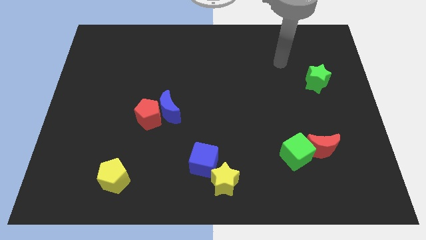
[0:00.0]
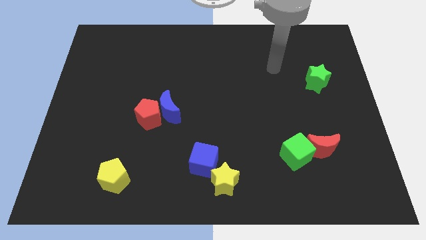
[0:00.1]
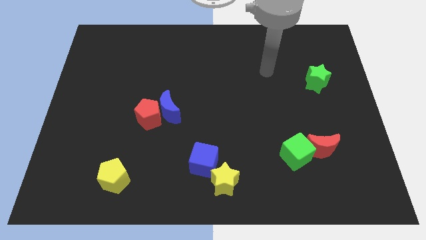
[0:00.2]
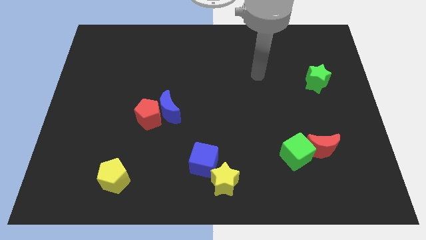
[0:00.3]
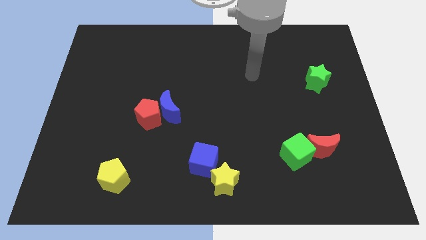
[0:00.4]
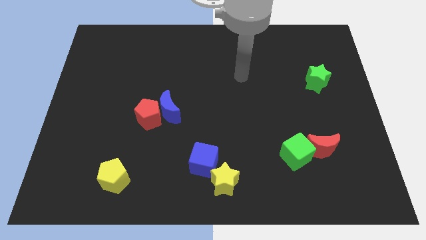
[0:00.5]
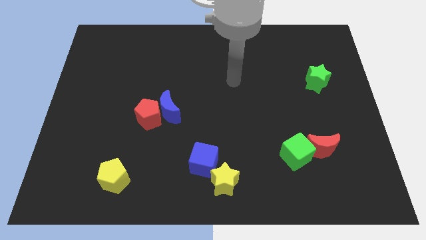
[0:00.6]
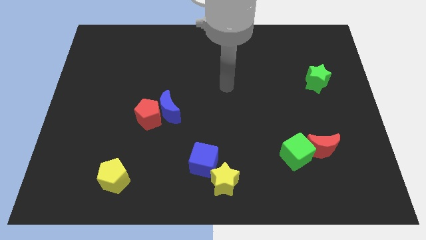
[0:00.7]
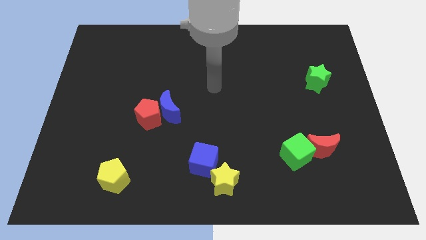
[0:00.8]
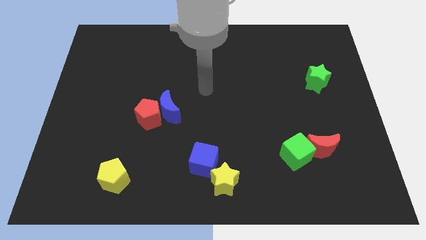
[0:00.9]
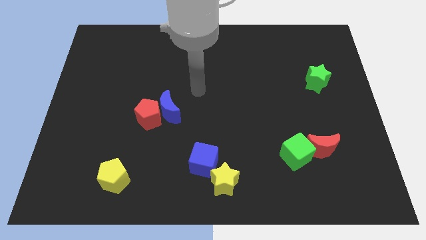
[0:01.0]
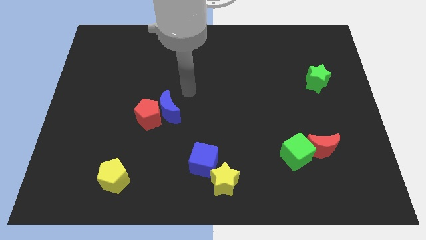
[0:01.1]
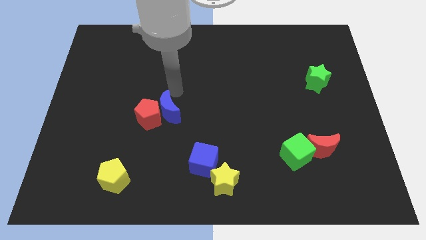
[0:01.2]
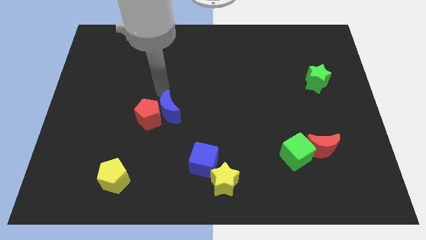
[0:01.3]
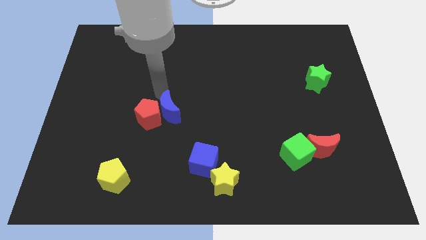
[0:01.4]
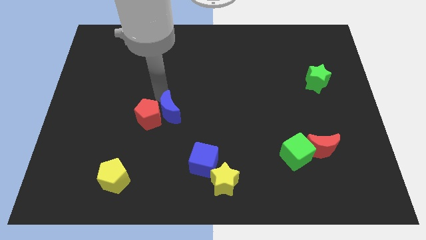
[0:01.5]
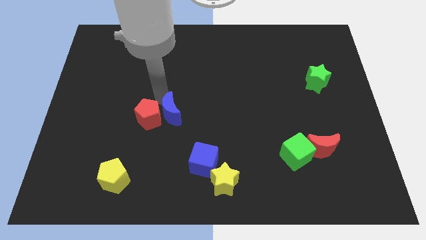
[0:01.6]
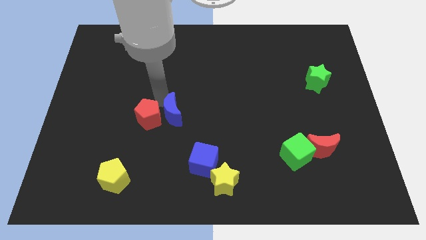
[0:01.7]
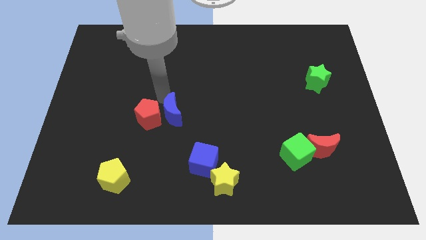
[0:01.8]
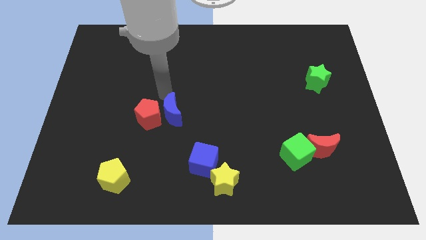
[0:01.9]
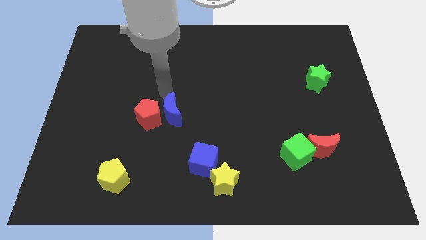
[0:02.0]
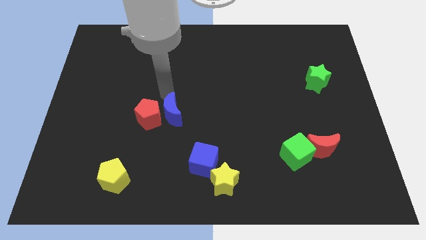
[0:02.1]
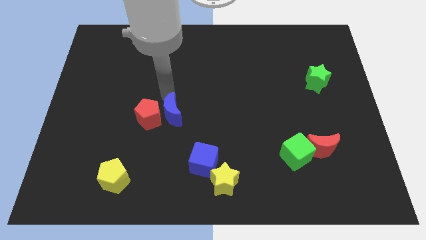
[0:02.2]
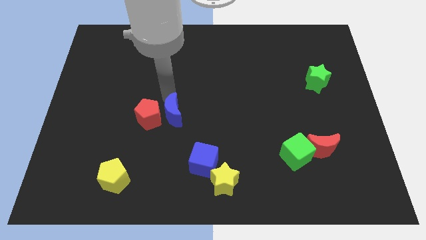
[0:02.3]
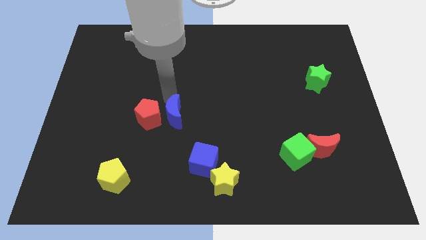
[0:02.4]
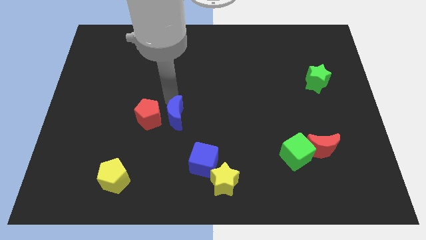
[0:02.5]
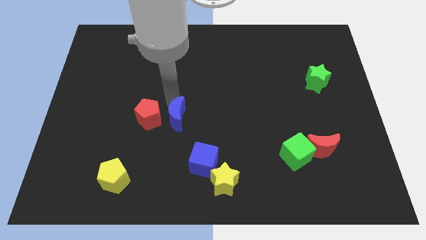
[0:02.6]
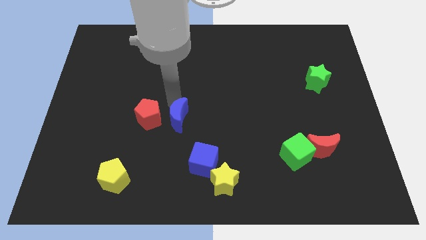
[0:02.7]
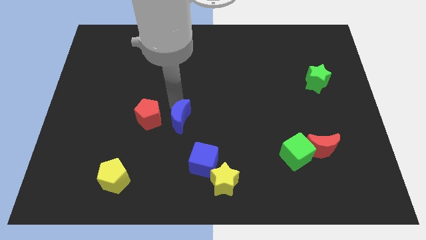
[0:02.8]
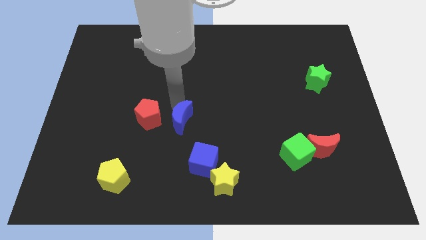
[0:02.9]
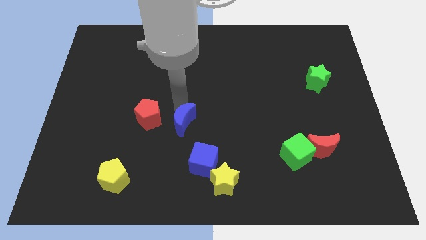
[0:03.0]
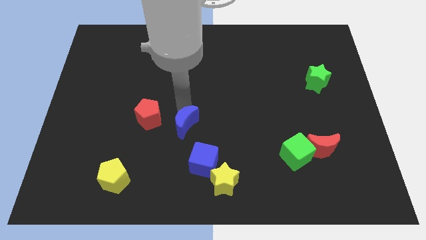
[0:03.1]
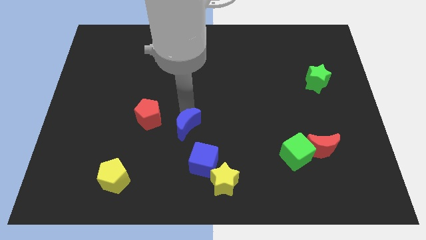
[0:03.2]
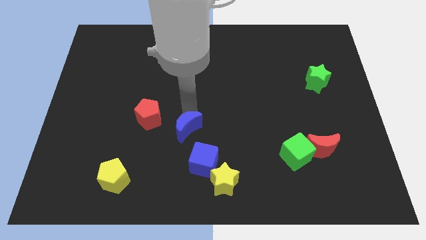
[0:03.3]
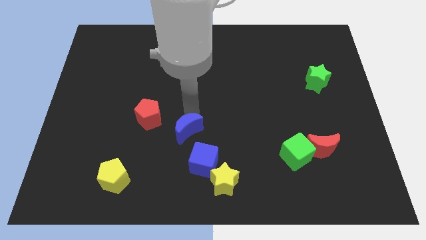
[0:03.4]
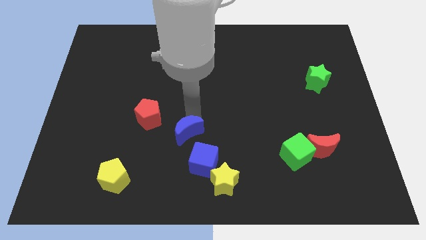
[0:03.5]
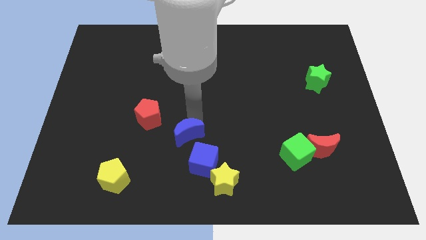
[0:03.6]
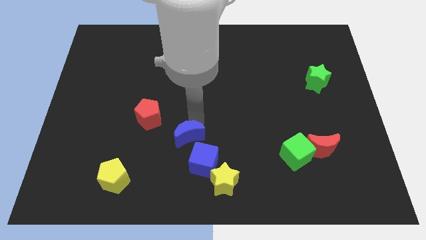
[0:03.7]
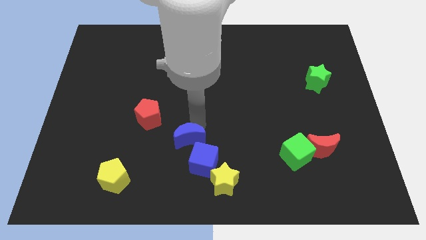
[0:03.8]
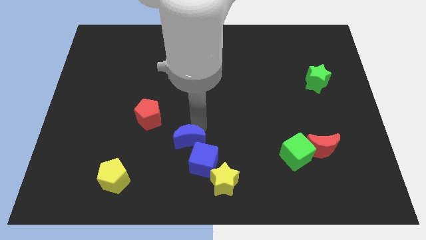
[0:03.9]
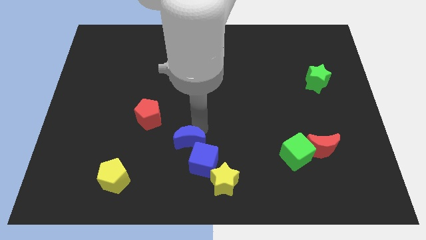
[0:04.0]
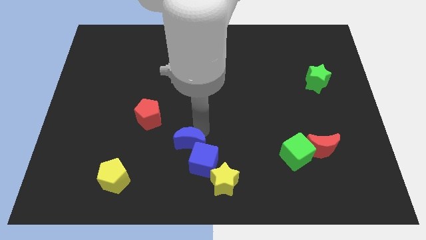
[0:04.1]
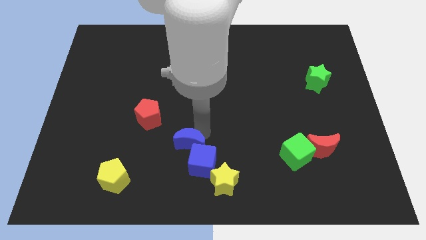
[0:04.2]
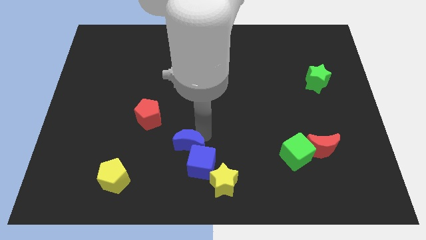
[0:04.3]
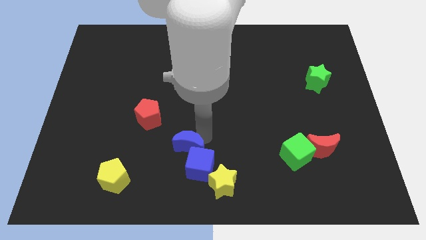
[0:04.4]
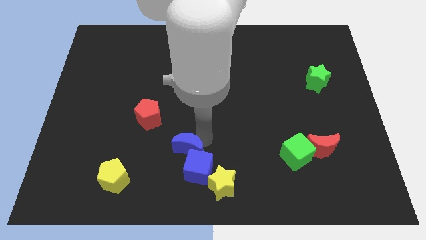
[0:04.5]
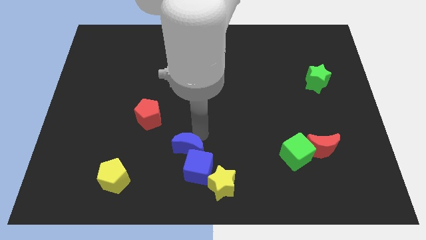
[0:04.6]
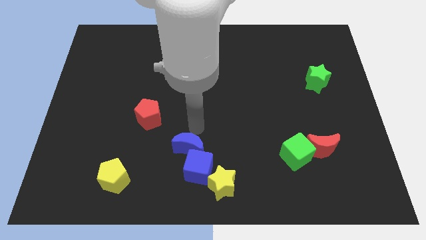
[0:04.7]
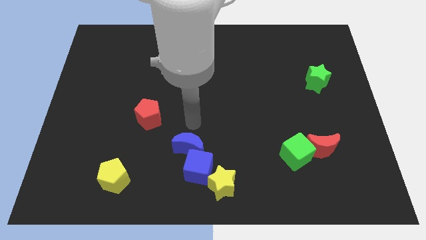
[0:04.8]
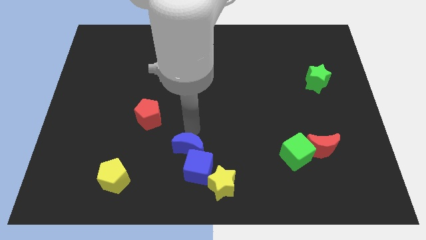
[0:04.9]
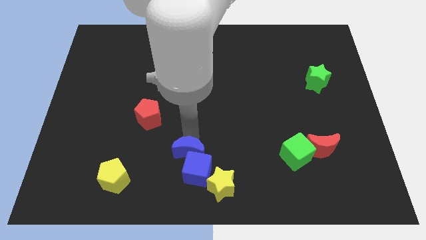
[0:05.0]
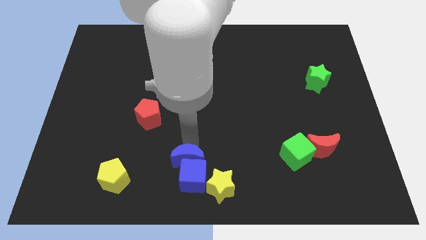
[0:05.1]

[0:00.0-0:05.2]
put the blue moon to the bottom

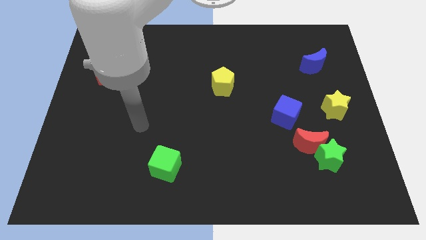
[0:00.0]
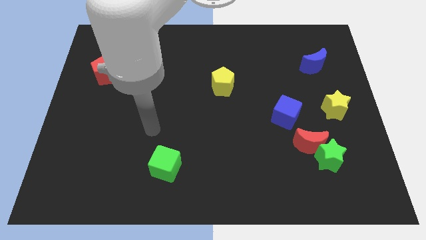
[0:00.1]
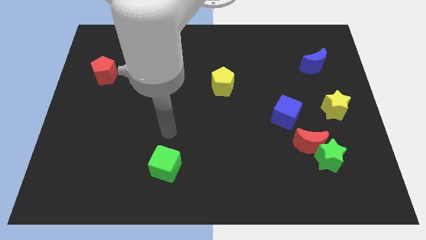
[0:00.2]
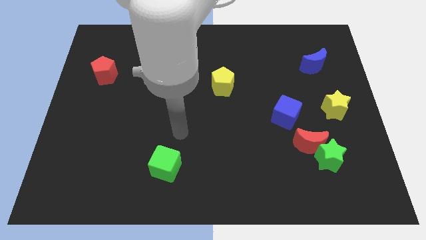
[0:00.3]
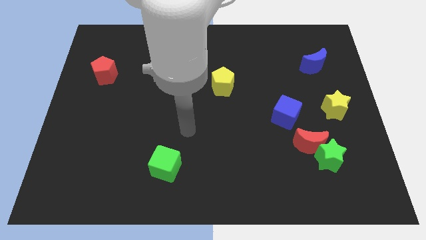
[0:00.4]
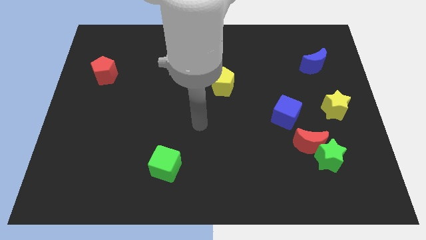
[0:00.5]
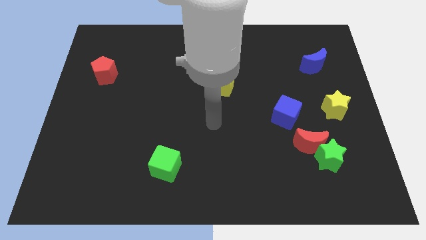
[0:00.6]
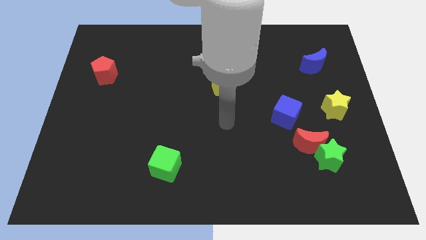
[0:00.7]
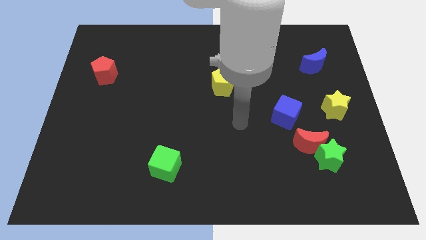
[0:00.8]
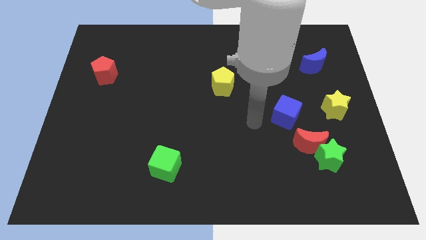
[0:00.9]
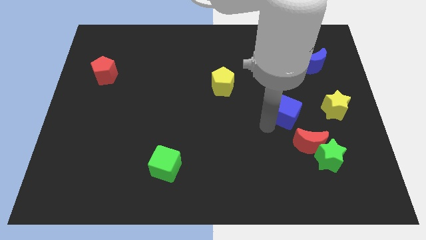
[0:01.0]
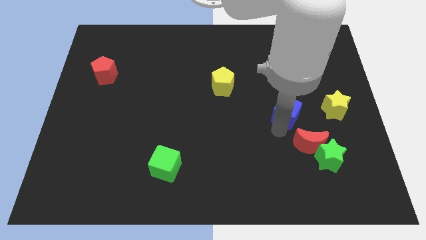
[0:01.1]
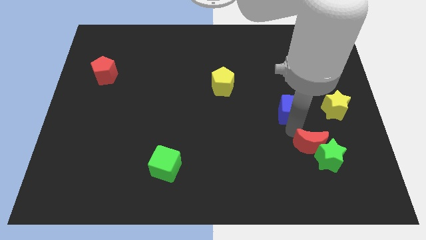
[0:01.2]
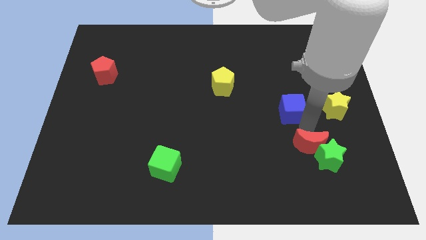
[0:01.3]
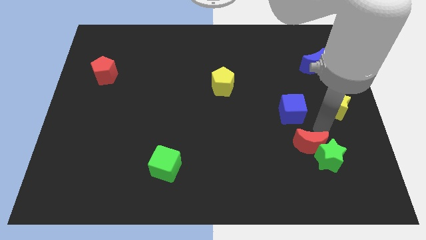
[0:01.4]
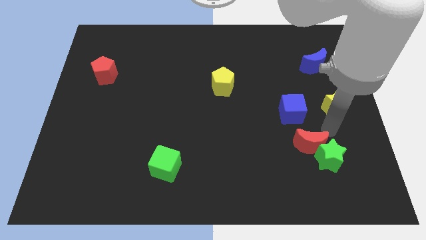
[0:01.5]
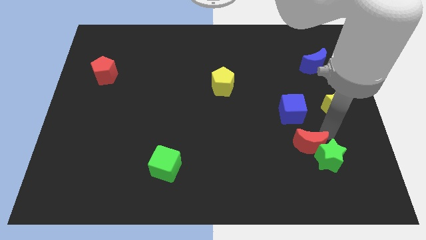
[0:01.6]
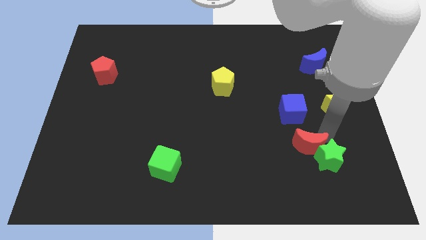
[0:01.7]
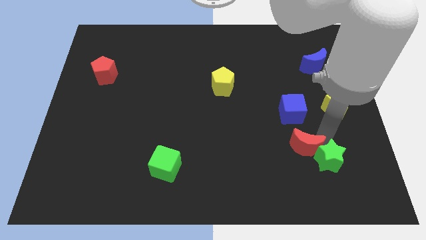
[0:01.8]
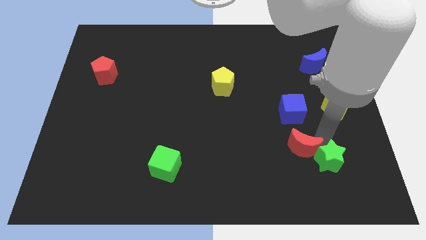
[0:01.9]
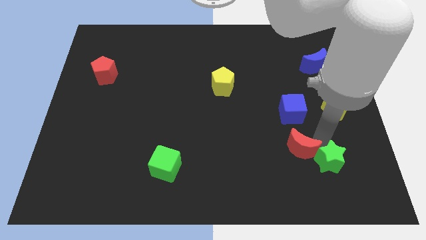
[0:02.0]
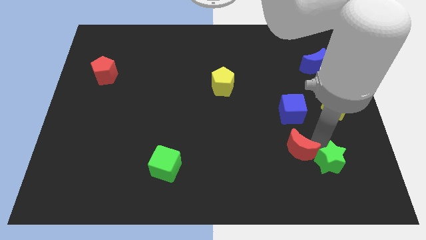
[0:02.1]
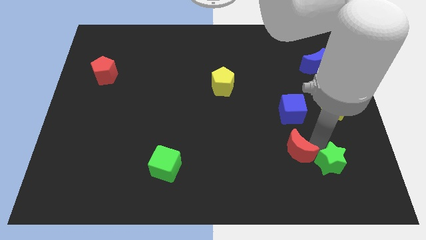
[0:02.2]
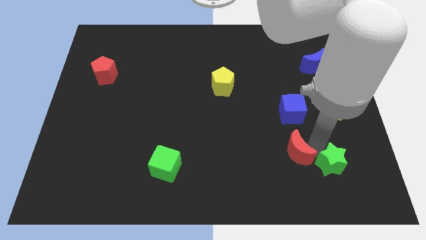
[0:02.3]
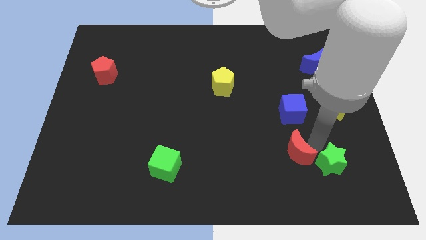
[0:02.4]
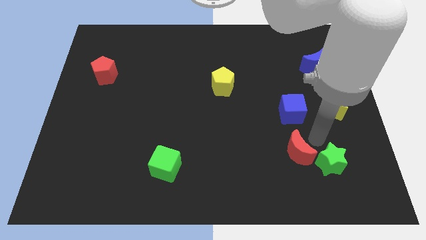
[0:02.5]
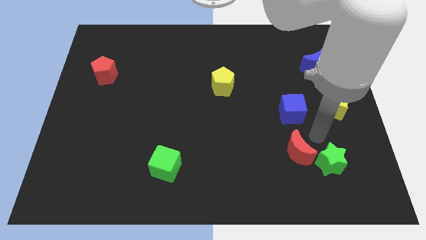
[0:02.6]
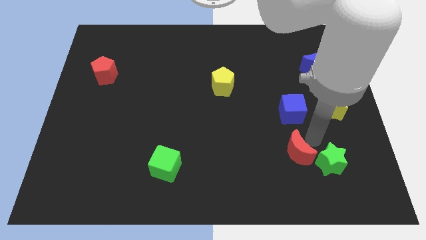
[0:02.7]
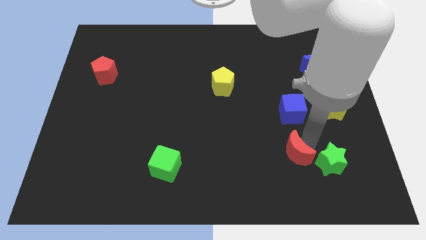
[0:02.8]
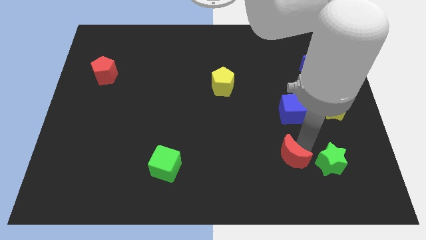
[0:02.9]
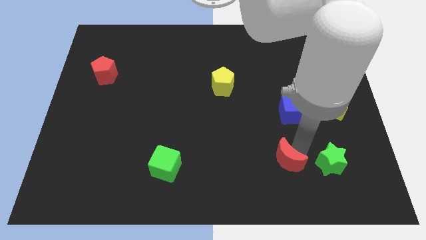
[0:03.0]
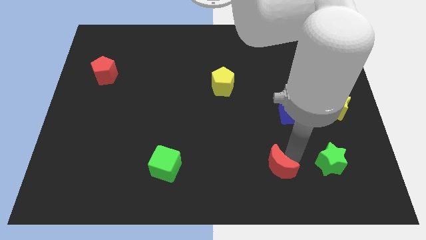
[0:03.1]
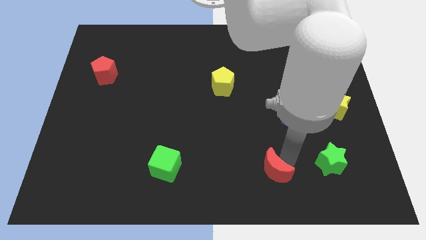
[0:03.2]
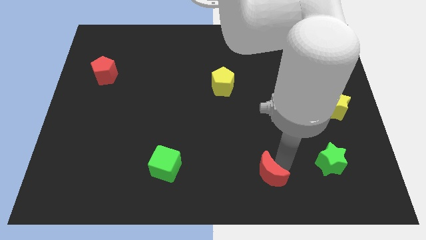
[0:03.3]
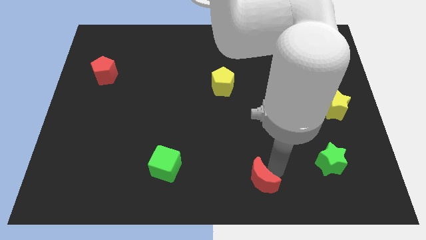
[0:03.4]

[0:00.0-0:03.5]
put the red moon to the bottom
